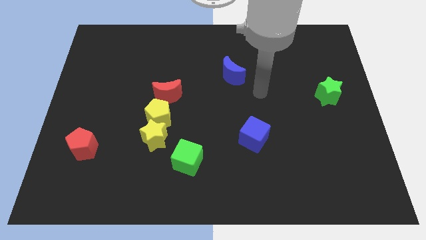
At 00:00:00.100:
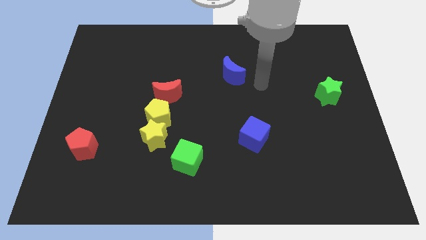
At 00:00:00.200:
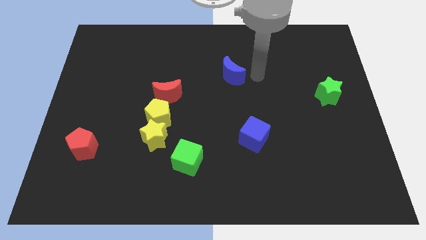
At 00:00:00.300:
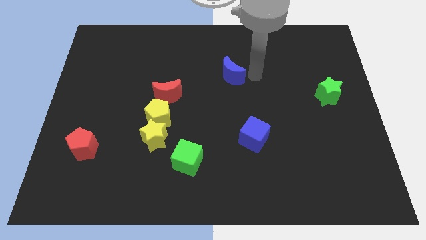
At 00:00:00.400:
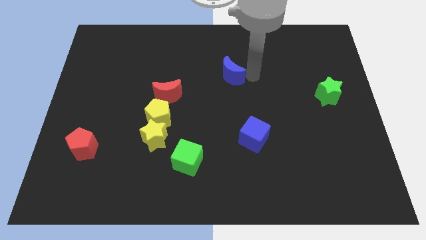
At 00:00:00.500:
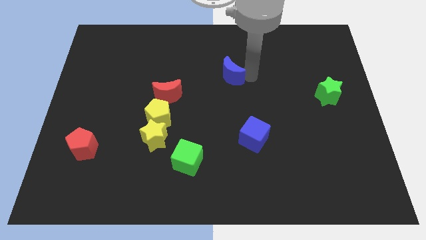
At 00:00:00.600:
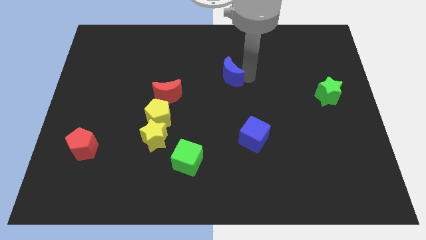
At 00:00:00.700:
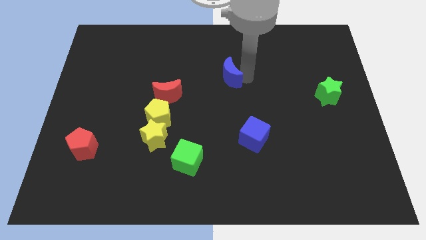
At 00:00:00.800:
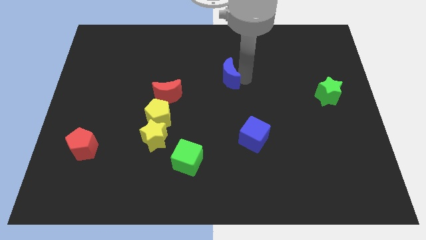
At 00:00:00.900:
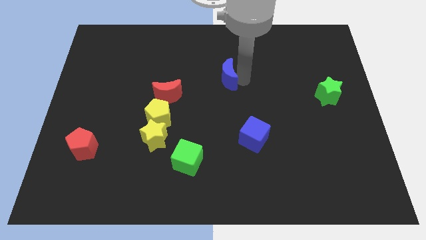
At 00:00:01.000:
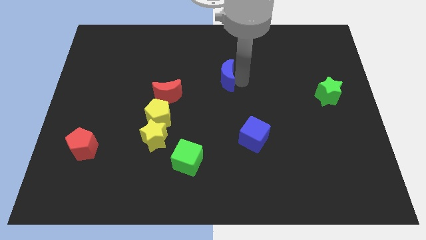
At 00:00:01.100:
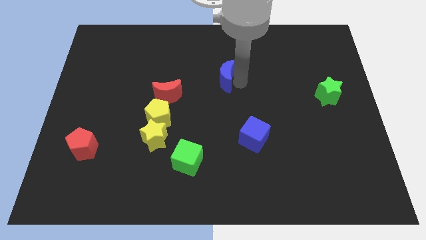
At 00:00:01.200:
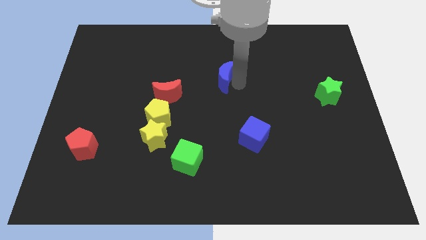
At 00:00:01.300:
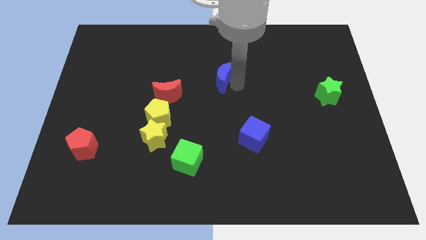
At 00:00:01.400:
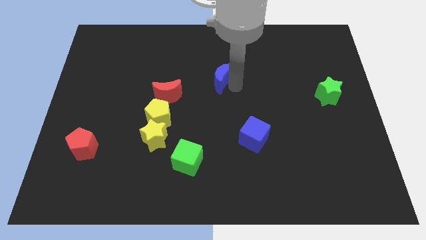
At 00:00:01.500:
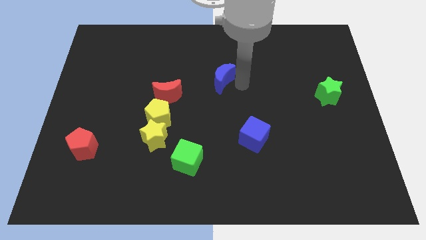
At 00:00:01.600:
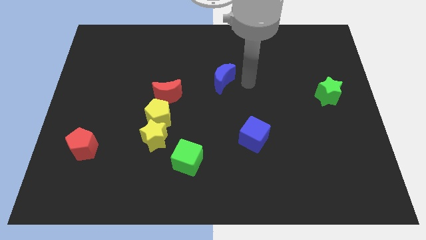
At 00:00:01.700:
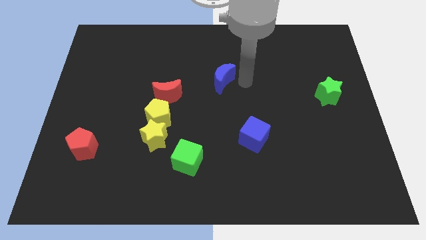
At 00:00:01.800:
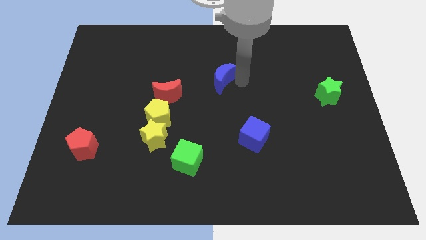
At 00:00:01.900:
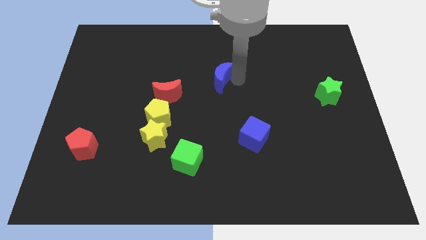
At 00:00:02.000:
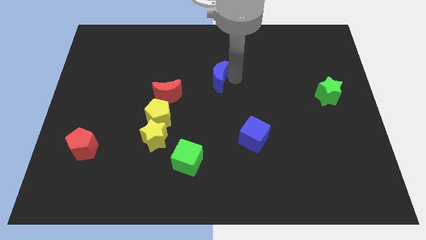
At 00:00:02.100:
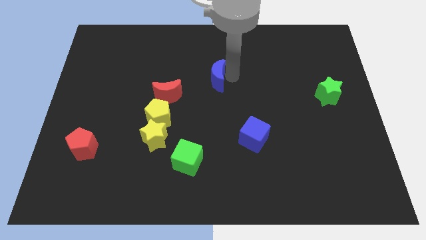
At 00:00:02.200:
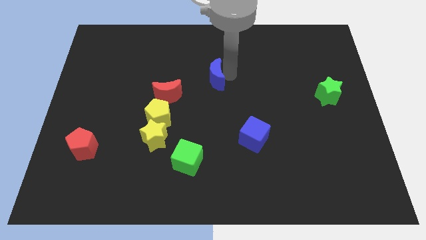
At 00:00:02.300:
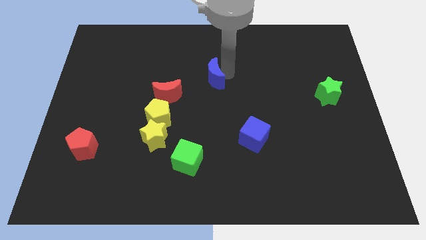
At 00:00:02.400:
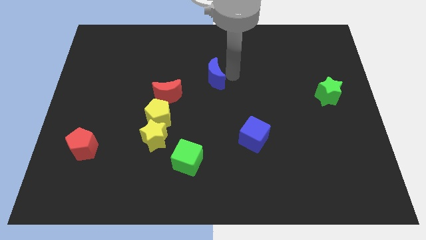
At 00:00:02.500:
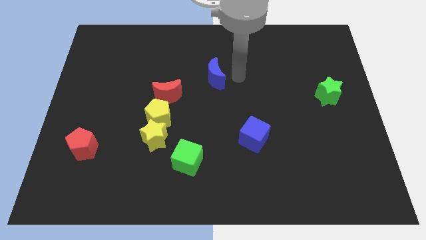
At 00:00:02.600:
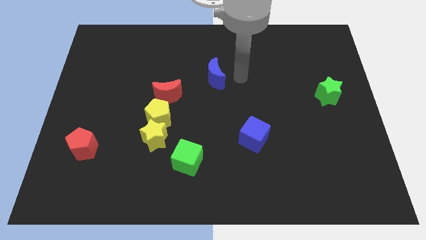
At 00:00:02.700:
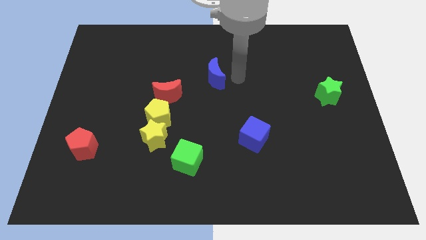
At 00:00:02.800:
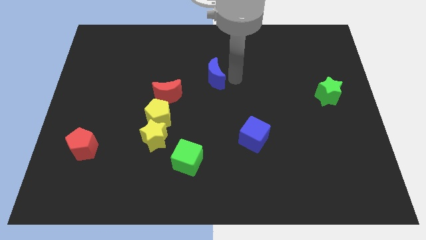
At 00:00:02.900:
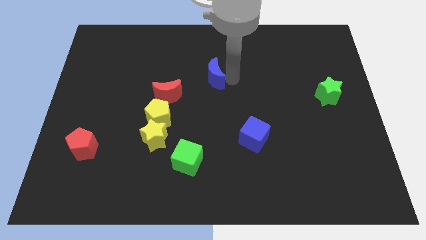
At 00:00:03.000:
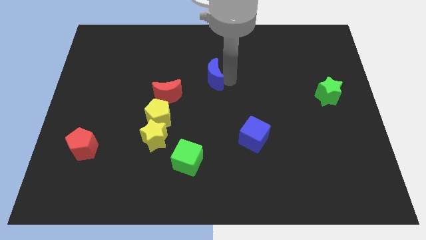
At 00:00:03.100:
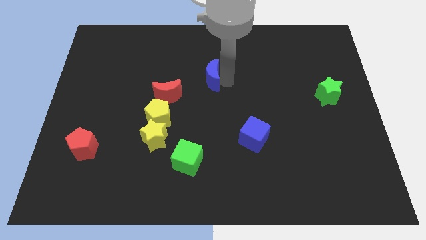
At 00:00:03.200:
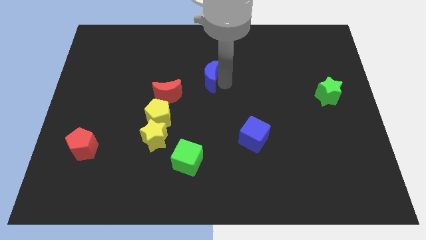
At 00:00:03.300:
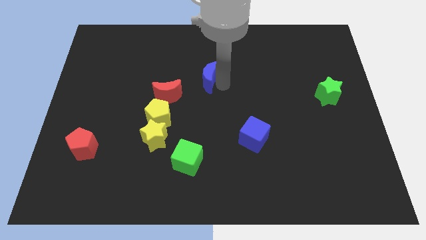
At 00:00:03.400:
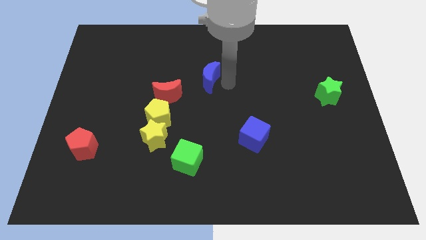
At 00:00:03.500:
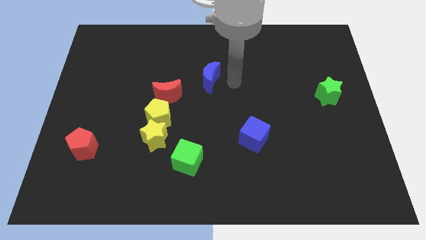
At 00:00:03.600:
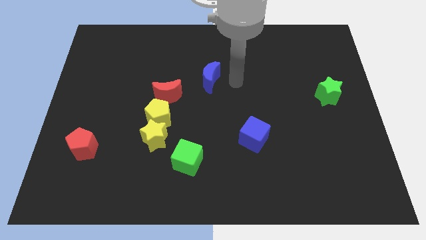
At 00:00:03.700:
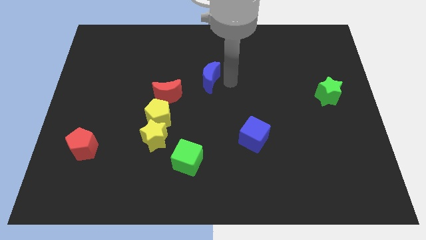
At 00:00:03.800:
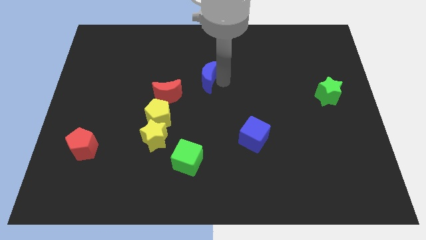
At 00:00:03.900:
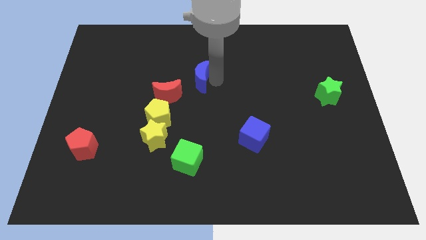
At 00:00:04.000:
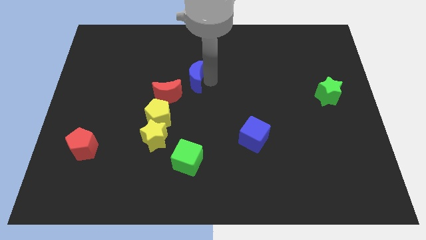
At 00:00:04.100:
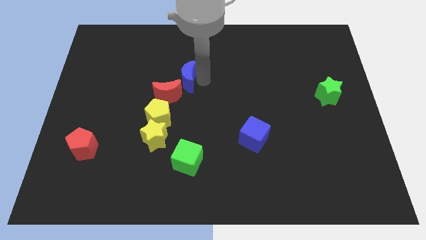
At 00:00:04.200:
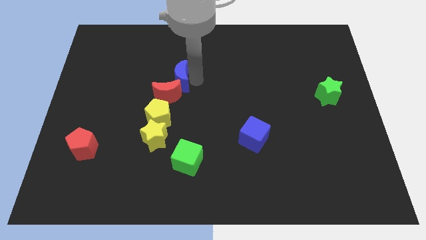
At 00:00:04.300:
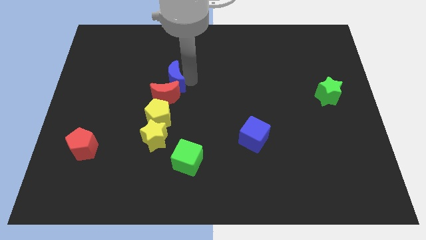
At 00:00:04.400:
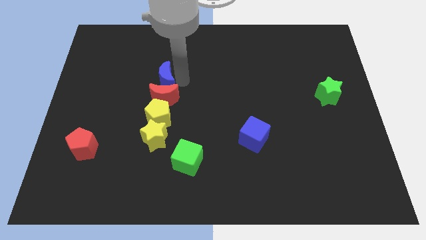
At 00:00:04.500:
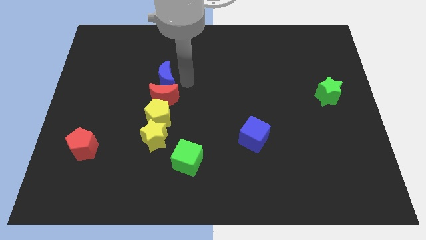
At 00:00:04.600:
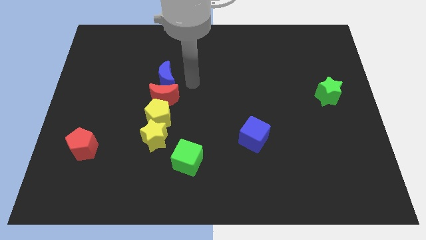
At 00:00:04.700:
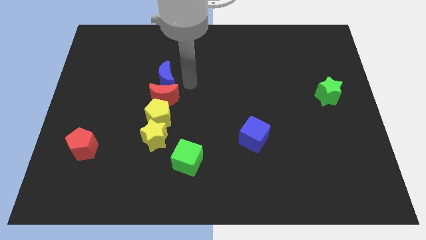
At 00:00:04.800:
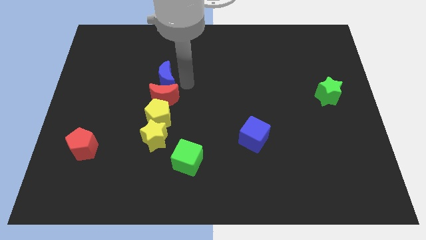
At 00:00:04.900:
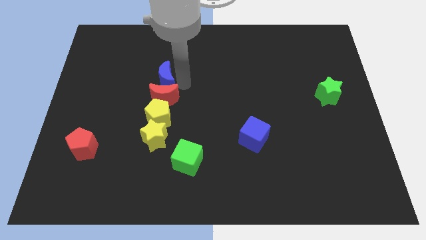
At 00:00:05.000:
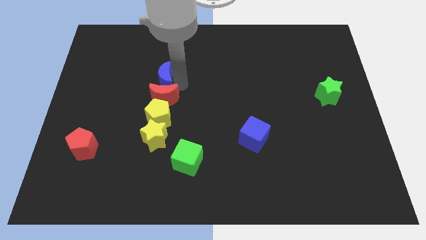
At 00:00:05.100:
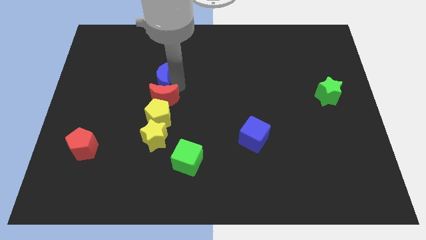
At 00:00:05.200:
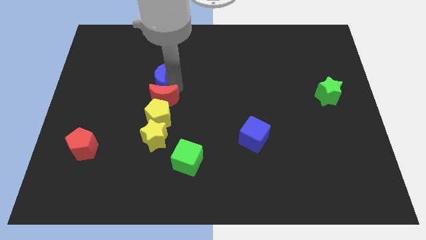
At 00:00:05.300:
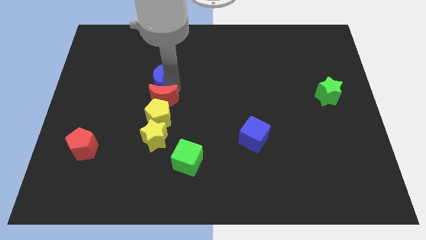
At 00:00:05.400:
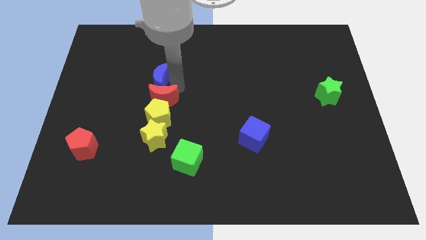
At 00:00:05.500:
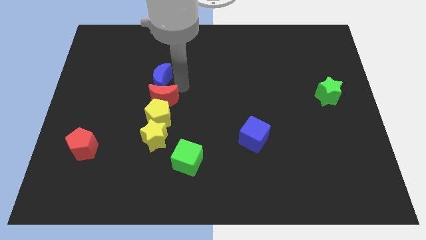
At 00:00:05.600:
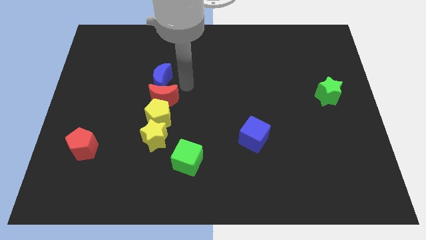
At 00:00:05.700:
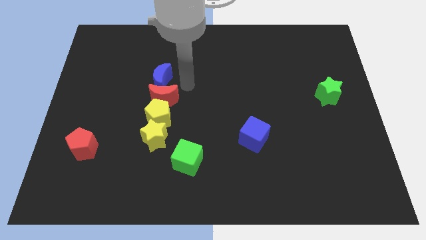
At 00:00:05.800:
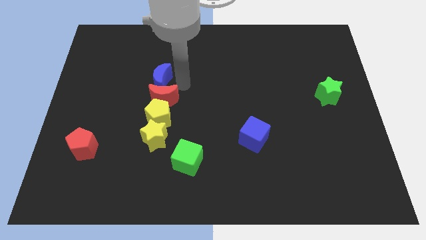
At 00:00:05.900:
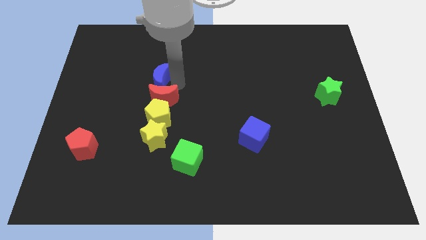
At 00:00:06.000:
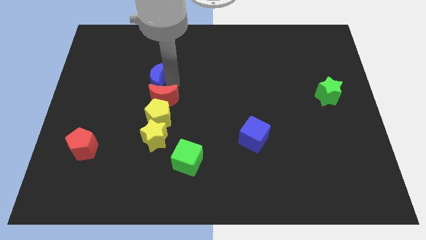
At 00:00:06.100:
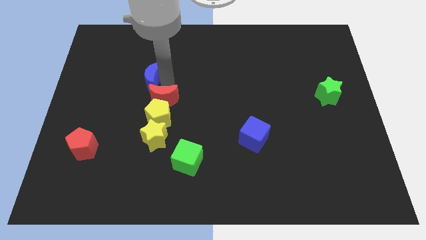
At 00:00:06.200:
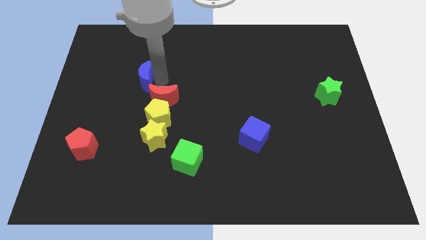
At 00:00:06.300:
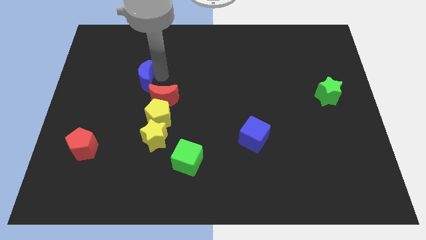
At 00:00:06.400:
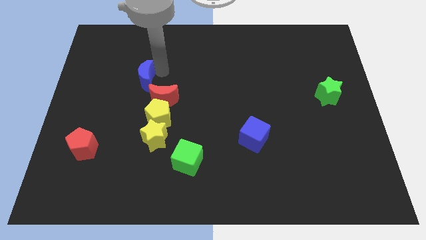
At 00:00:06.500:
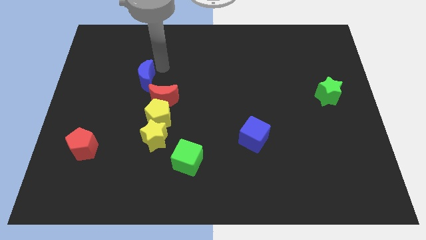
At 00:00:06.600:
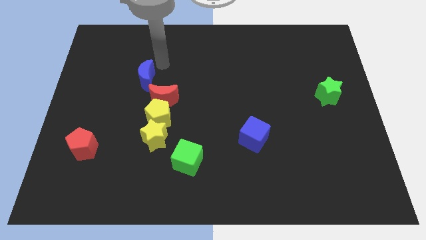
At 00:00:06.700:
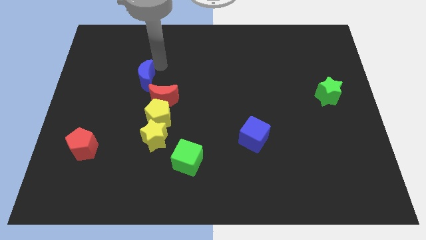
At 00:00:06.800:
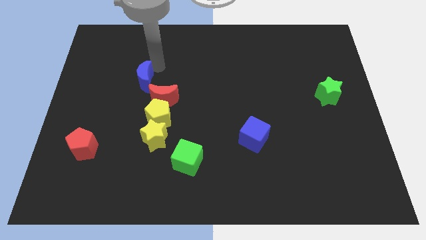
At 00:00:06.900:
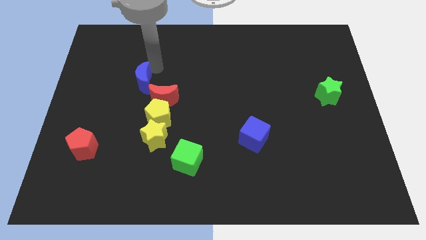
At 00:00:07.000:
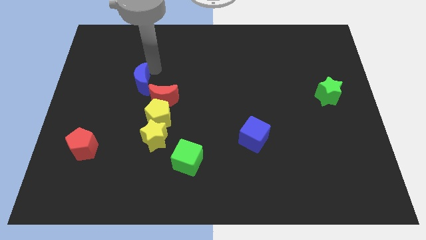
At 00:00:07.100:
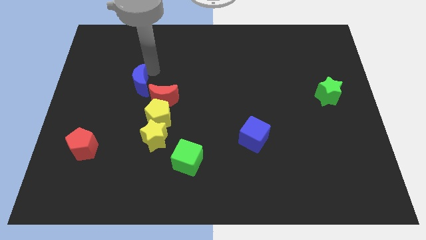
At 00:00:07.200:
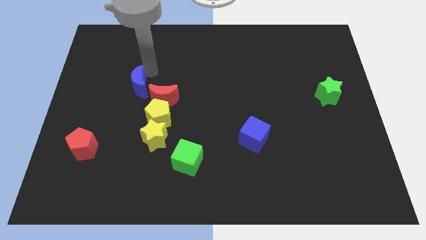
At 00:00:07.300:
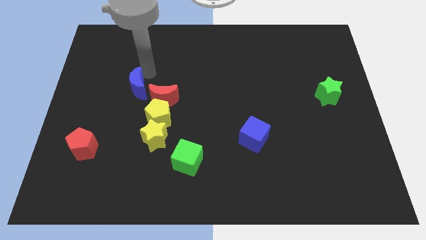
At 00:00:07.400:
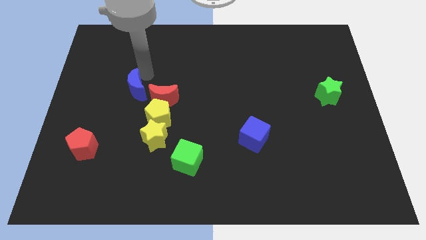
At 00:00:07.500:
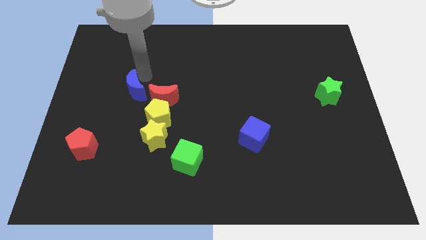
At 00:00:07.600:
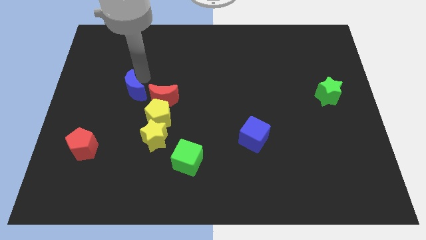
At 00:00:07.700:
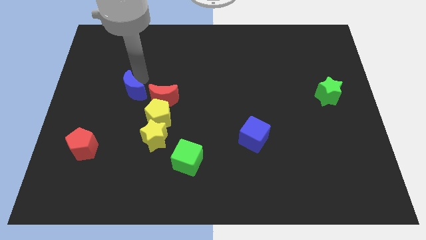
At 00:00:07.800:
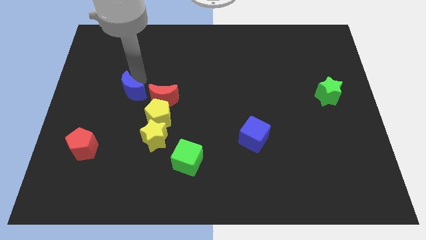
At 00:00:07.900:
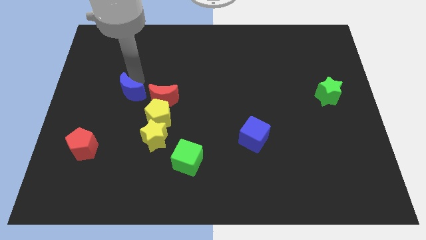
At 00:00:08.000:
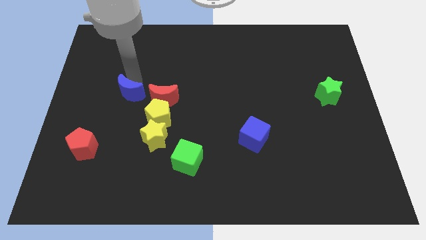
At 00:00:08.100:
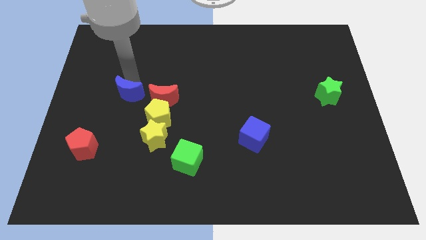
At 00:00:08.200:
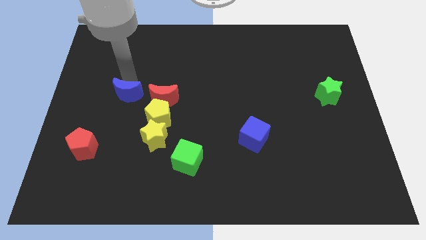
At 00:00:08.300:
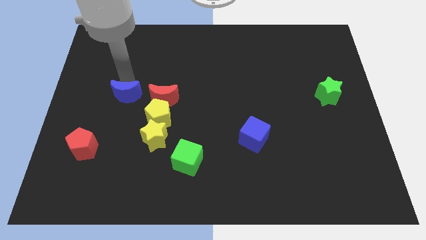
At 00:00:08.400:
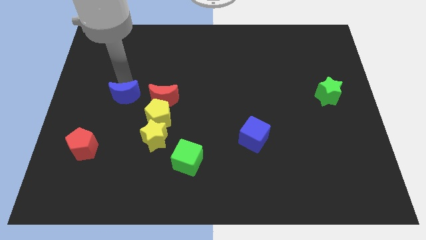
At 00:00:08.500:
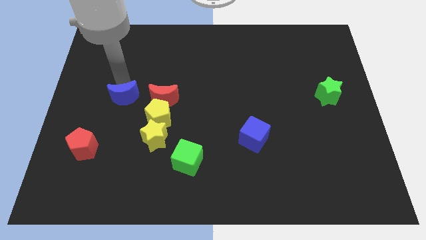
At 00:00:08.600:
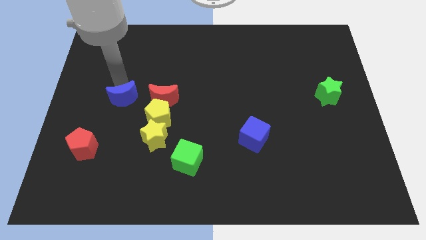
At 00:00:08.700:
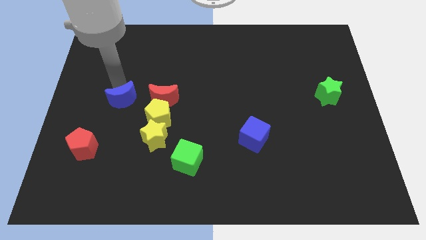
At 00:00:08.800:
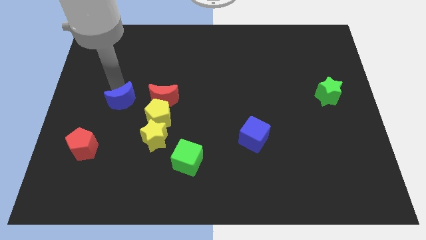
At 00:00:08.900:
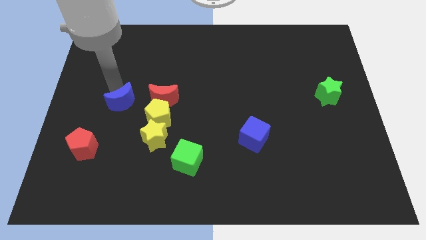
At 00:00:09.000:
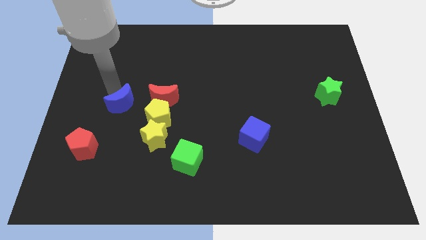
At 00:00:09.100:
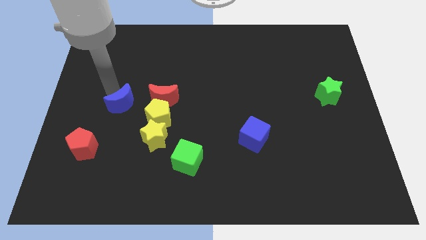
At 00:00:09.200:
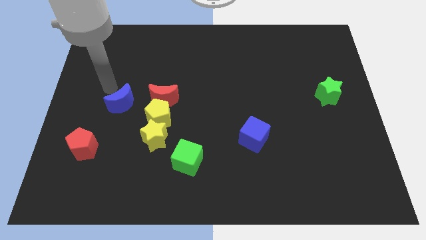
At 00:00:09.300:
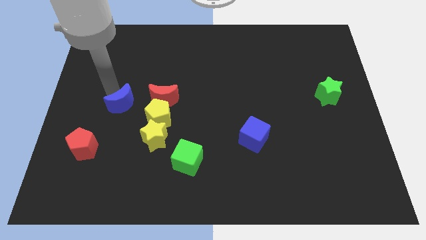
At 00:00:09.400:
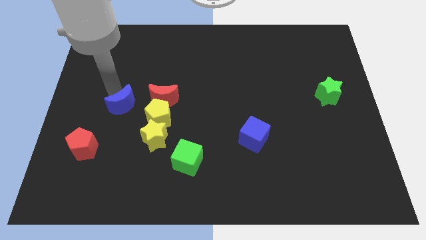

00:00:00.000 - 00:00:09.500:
slide the blue moon diagonally up and to the left of the yellow star
